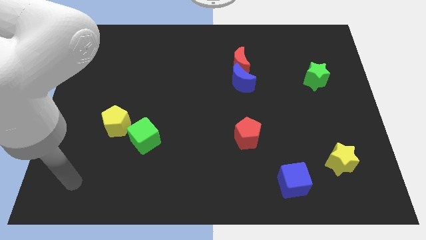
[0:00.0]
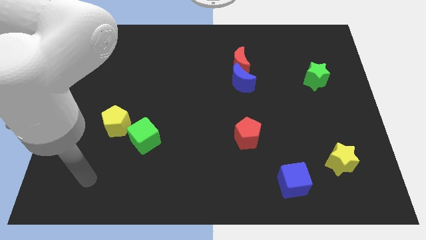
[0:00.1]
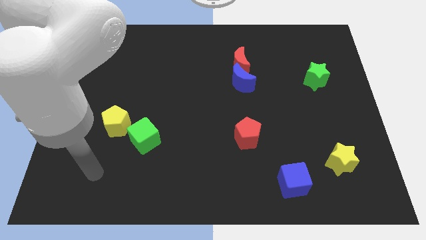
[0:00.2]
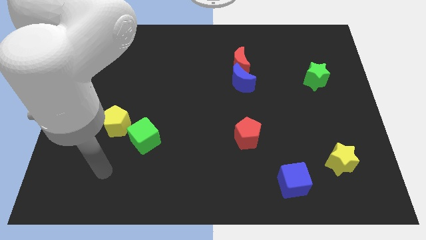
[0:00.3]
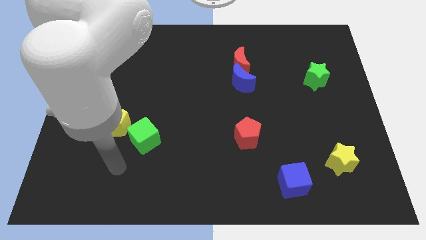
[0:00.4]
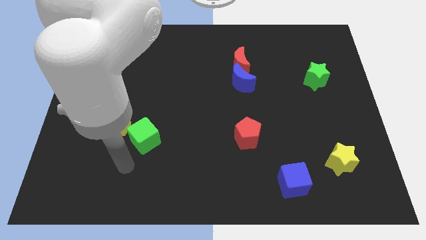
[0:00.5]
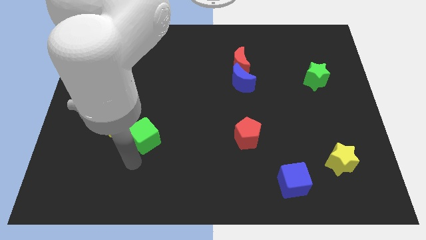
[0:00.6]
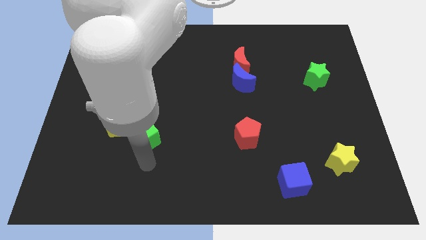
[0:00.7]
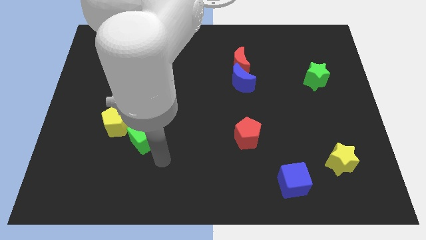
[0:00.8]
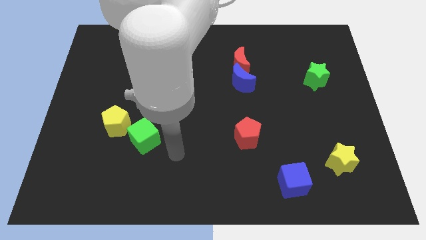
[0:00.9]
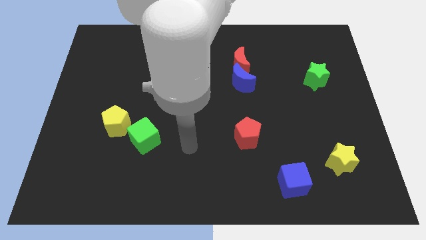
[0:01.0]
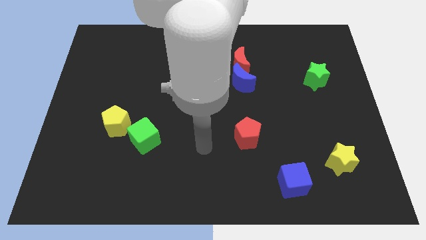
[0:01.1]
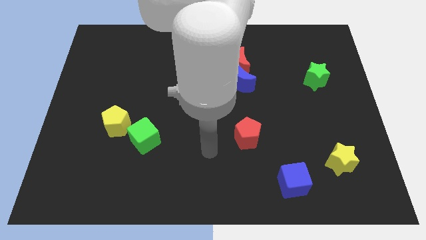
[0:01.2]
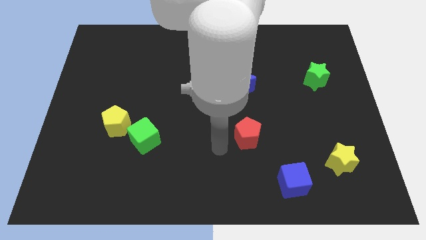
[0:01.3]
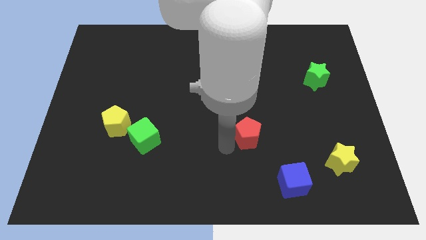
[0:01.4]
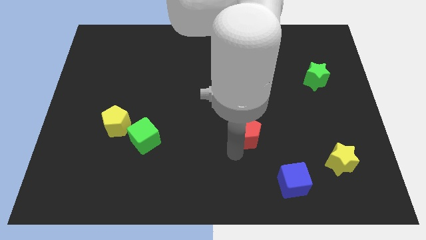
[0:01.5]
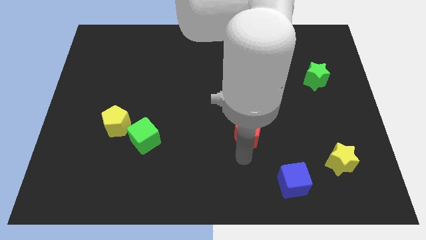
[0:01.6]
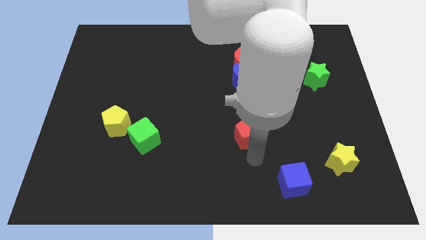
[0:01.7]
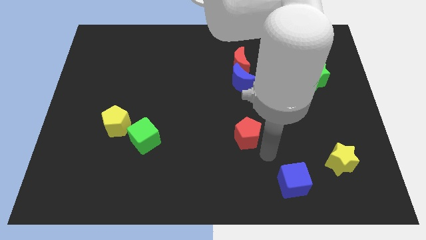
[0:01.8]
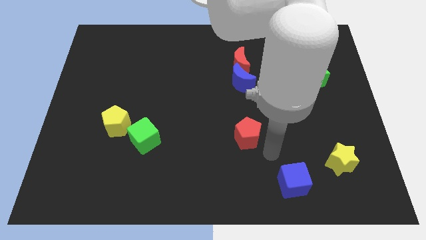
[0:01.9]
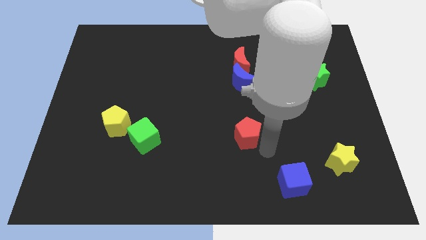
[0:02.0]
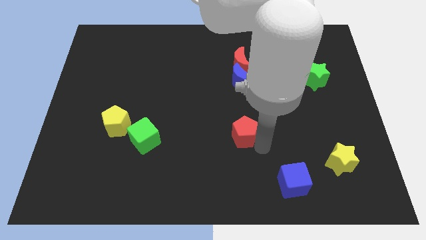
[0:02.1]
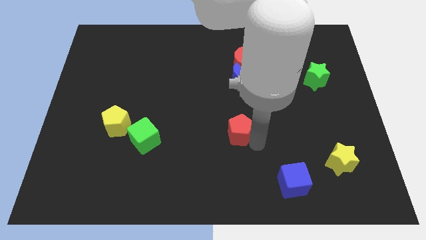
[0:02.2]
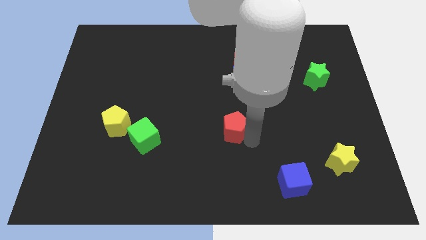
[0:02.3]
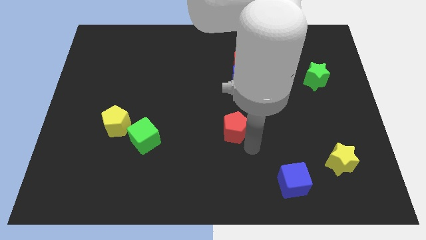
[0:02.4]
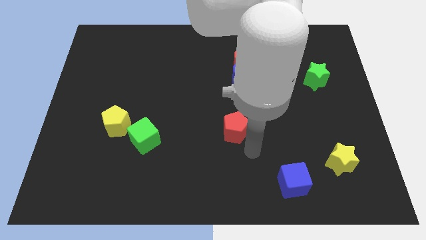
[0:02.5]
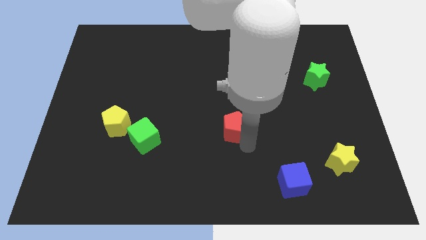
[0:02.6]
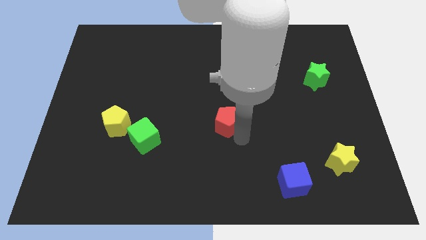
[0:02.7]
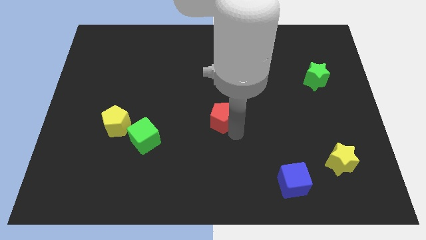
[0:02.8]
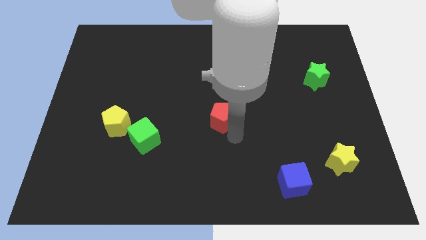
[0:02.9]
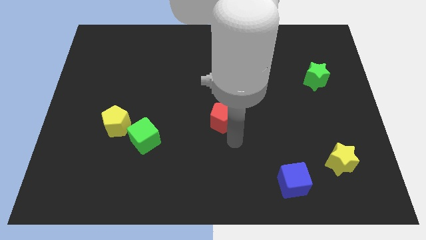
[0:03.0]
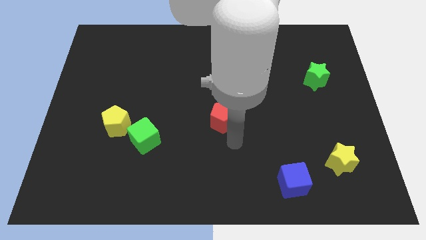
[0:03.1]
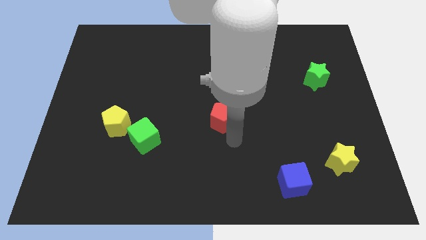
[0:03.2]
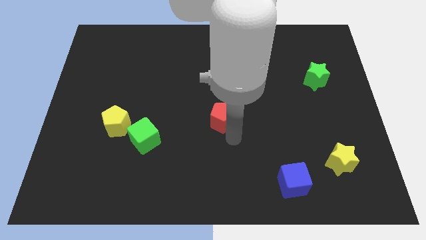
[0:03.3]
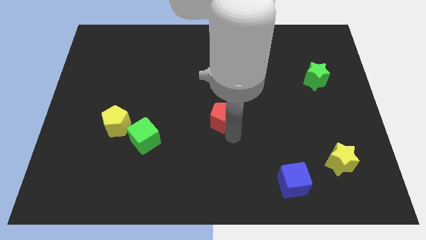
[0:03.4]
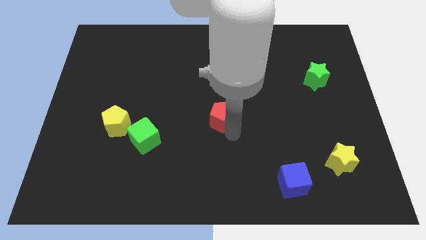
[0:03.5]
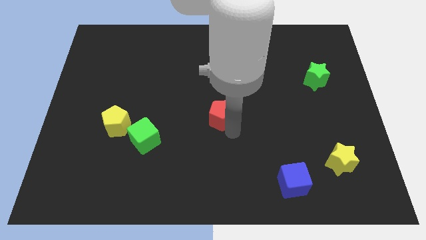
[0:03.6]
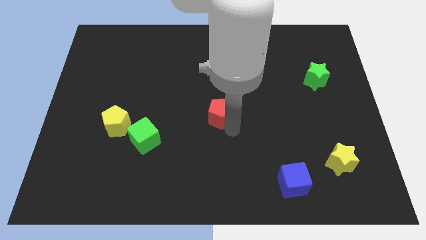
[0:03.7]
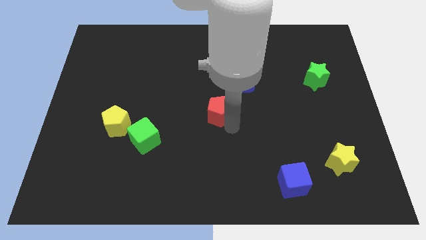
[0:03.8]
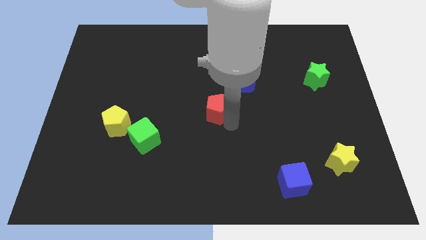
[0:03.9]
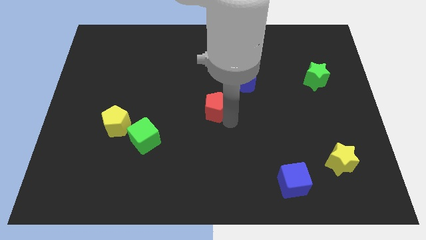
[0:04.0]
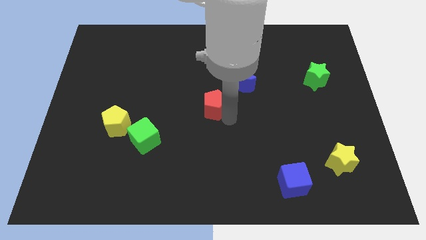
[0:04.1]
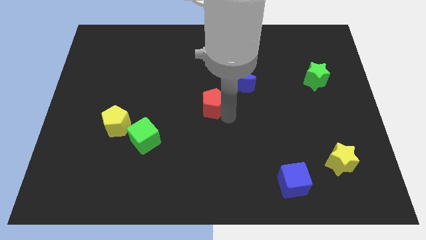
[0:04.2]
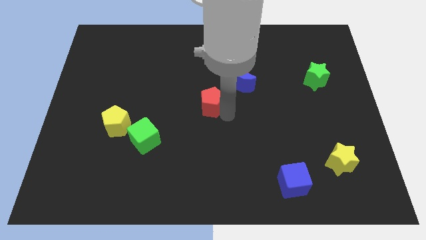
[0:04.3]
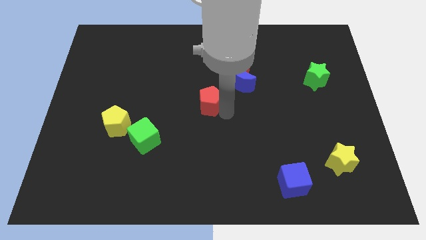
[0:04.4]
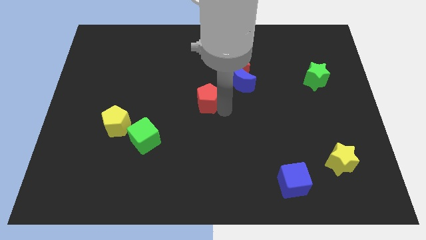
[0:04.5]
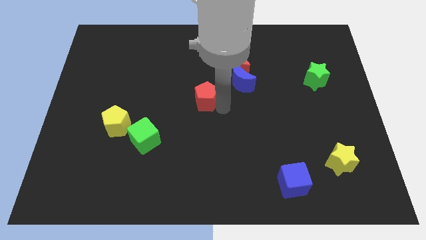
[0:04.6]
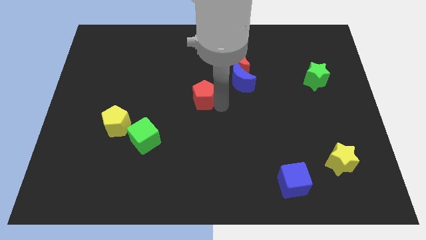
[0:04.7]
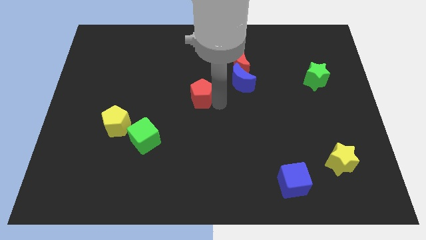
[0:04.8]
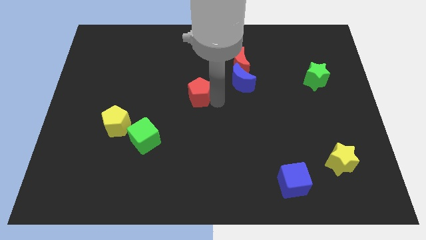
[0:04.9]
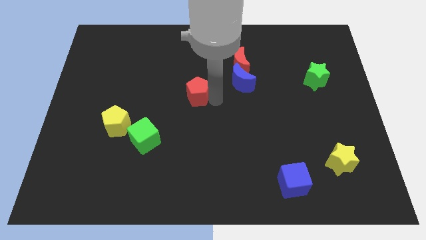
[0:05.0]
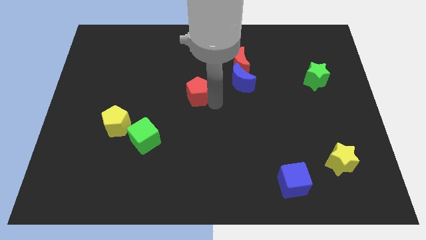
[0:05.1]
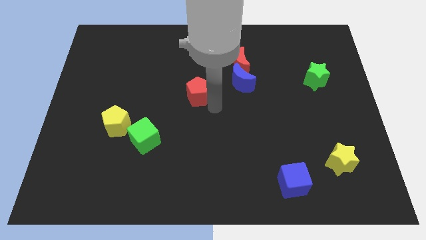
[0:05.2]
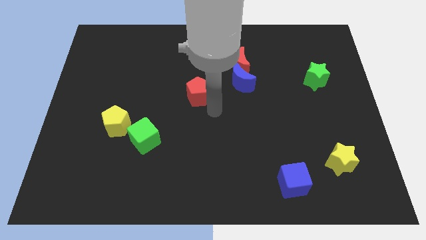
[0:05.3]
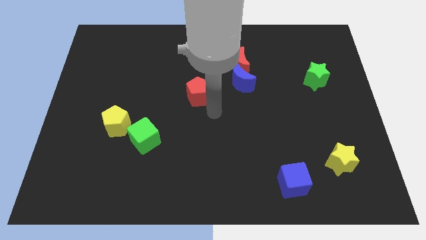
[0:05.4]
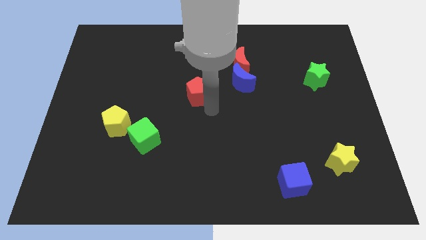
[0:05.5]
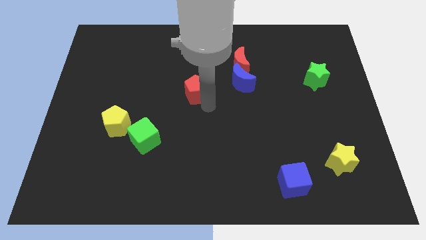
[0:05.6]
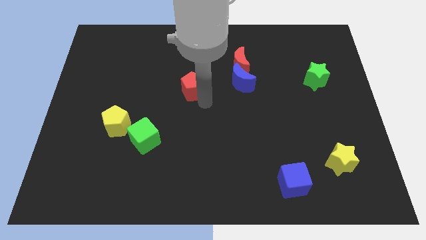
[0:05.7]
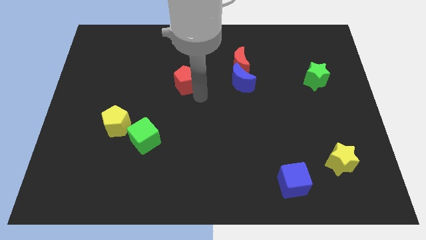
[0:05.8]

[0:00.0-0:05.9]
push the red pentagon upwards and then left

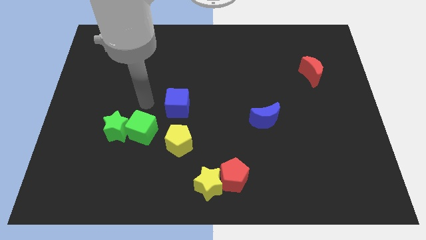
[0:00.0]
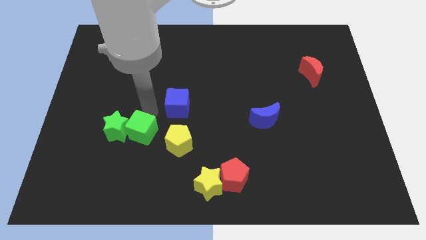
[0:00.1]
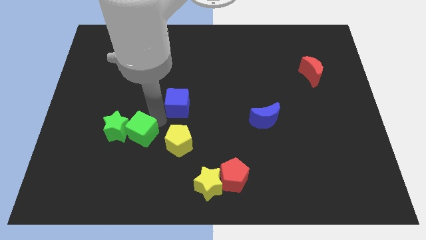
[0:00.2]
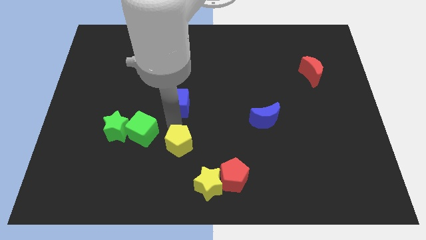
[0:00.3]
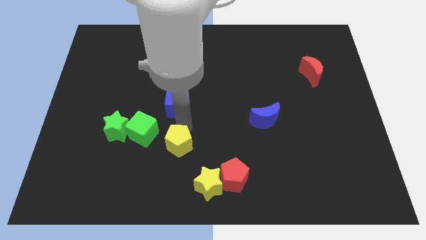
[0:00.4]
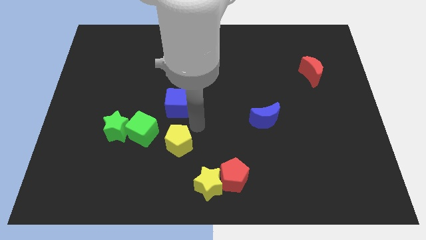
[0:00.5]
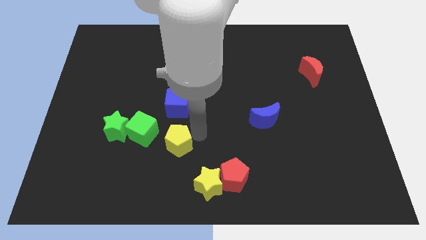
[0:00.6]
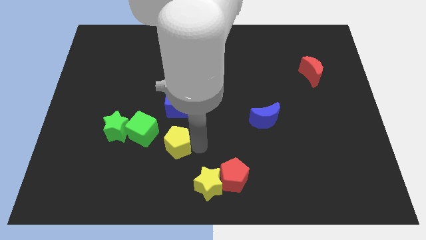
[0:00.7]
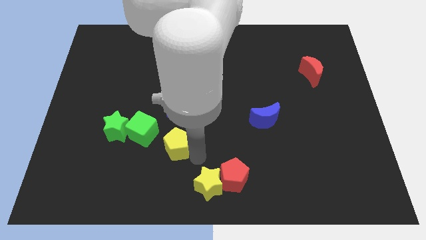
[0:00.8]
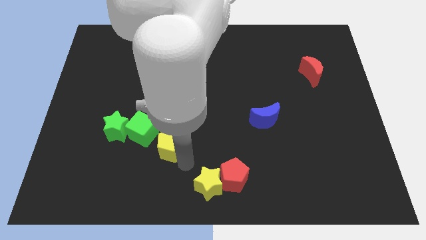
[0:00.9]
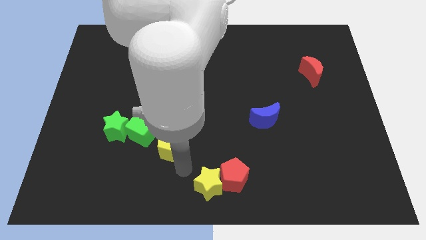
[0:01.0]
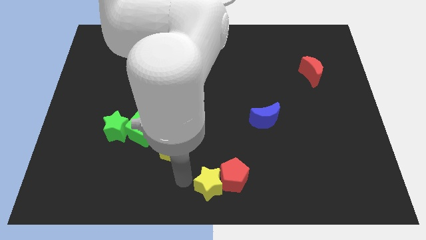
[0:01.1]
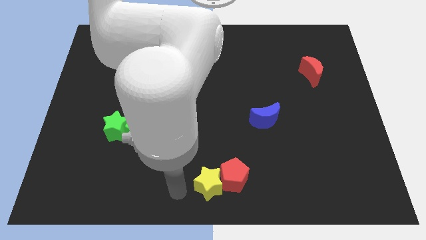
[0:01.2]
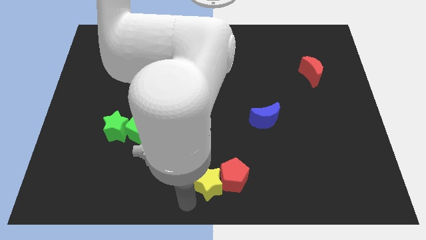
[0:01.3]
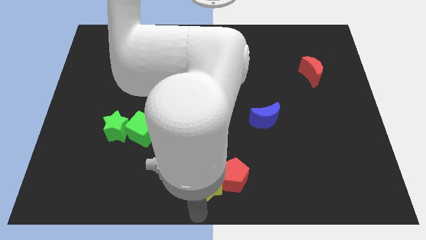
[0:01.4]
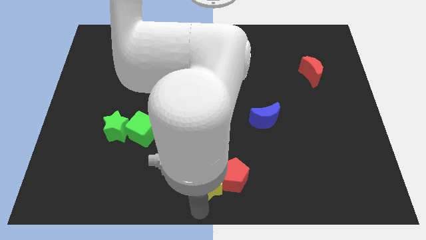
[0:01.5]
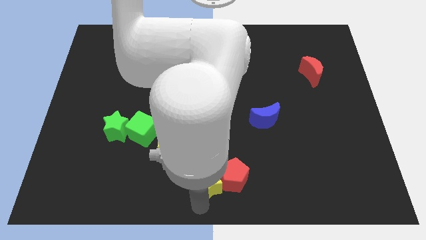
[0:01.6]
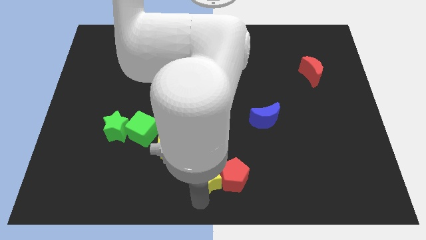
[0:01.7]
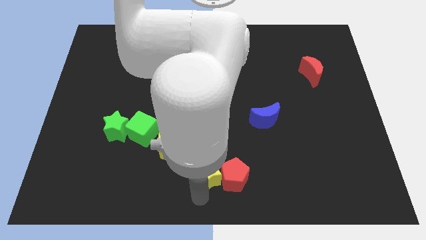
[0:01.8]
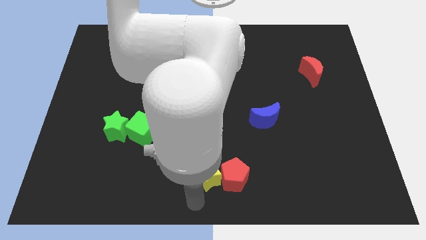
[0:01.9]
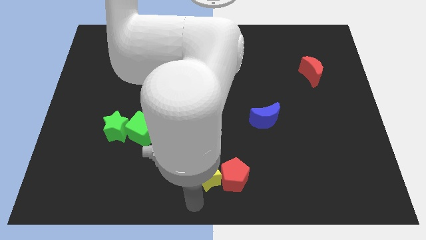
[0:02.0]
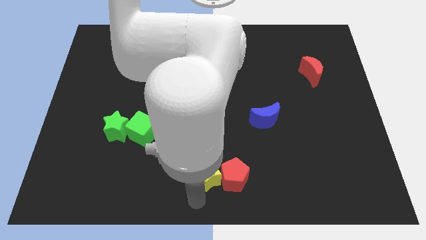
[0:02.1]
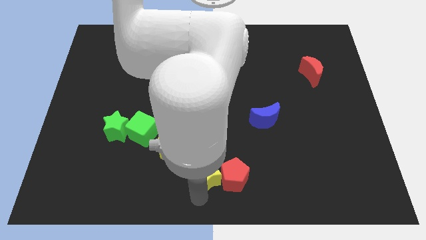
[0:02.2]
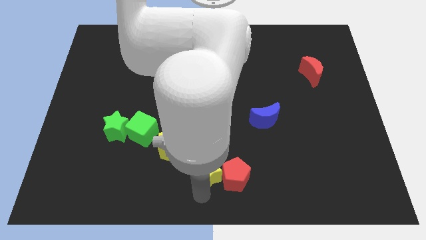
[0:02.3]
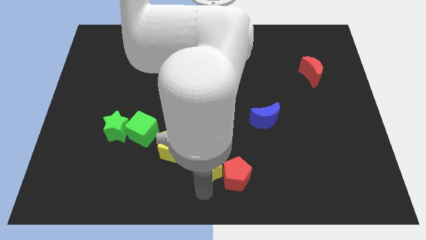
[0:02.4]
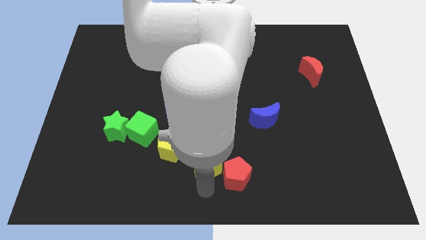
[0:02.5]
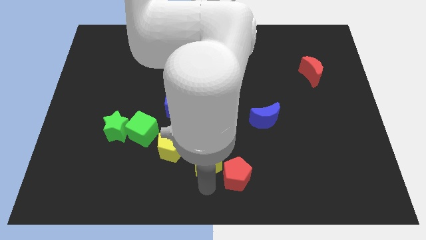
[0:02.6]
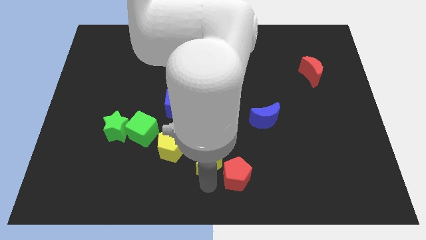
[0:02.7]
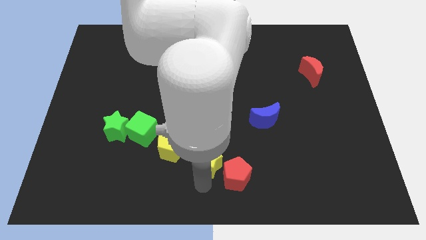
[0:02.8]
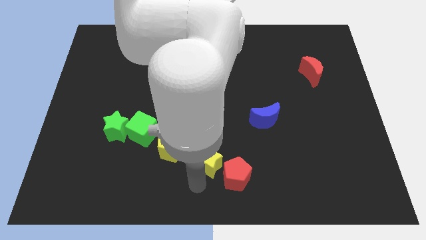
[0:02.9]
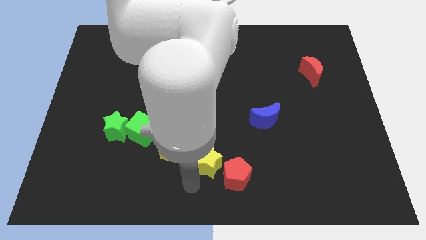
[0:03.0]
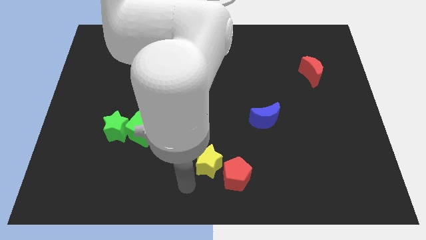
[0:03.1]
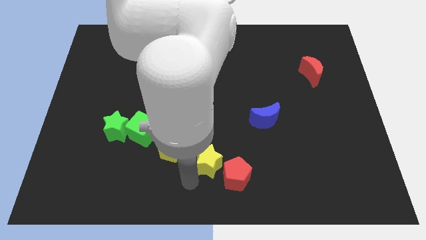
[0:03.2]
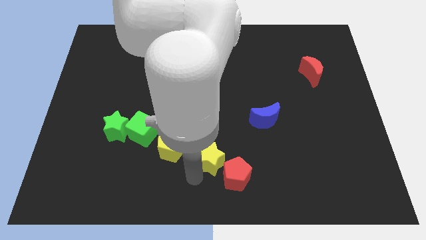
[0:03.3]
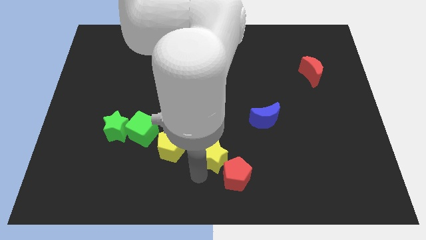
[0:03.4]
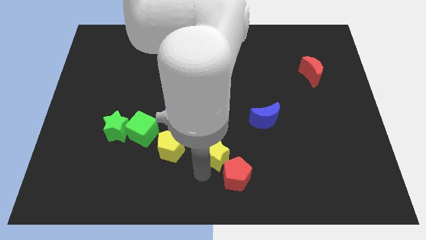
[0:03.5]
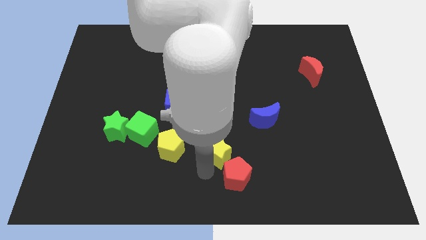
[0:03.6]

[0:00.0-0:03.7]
slightly push the yellow star upwards
